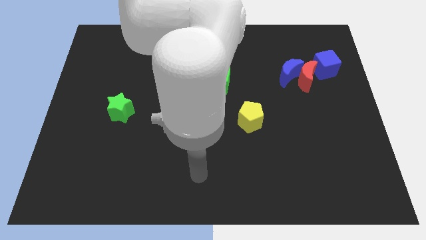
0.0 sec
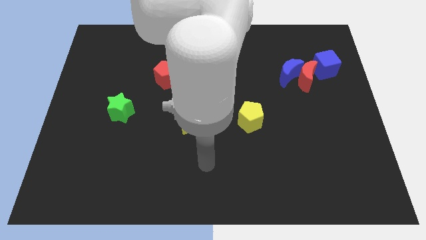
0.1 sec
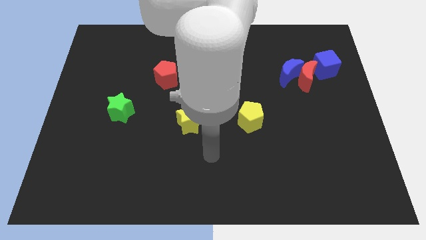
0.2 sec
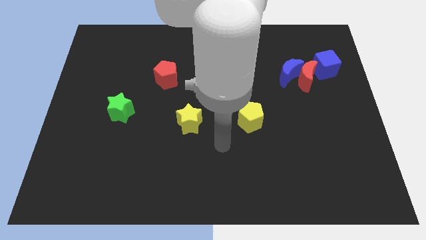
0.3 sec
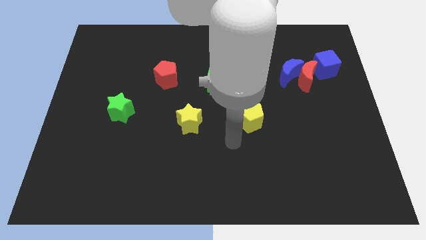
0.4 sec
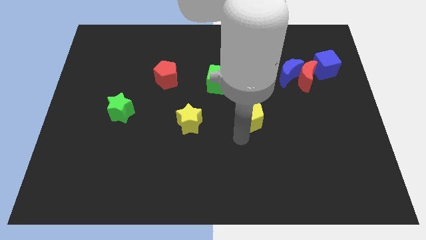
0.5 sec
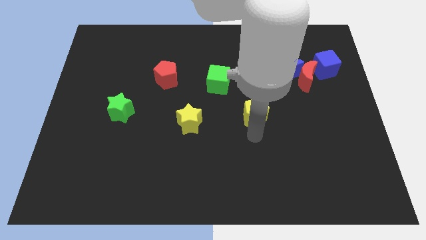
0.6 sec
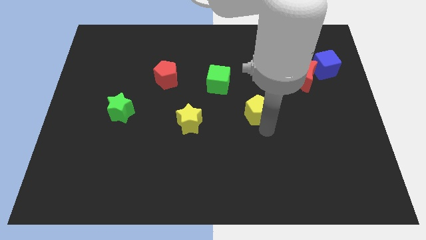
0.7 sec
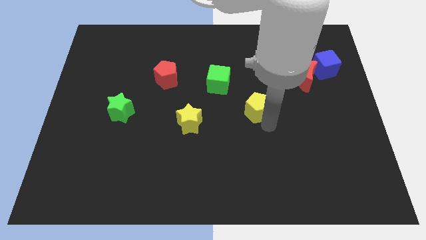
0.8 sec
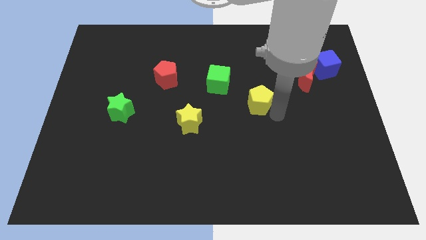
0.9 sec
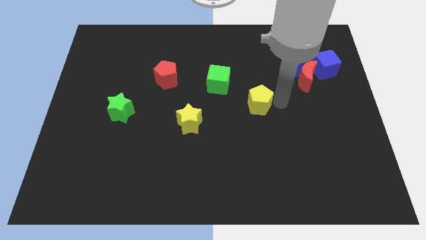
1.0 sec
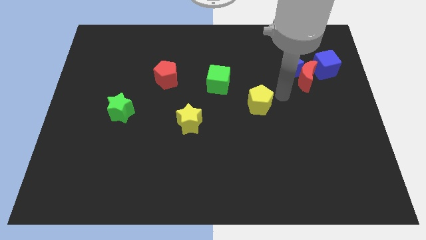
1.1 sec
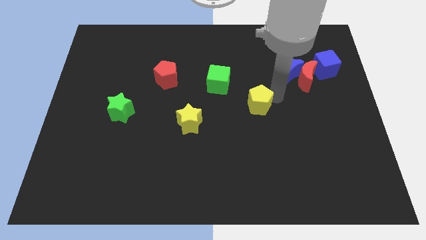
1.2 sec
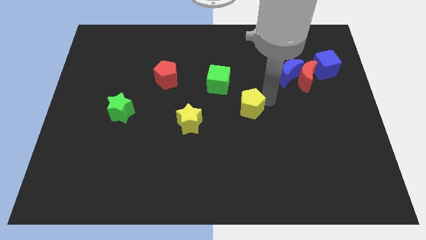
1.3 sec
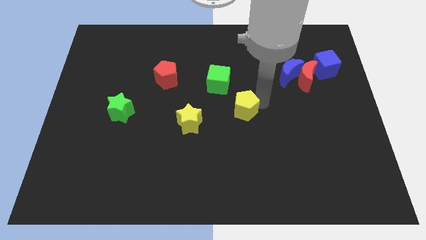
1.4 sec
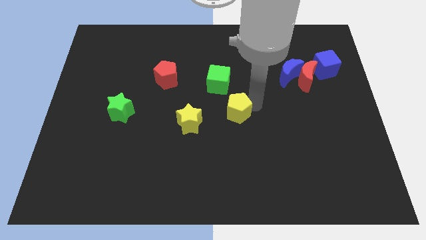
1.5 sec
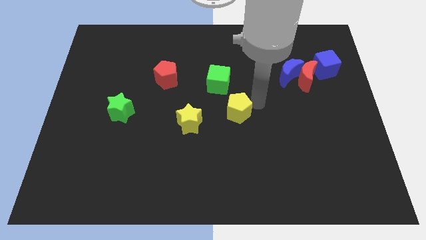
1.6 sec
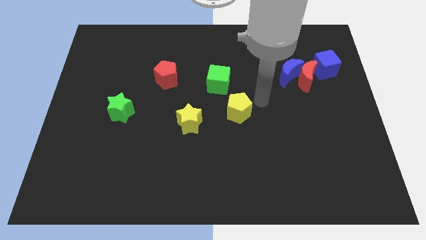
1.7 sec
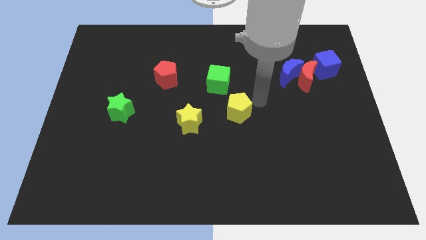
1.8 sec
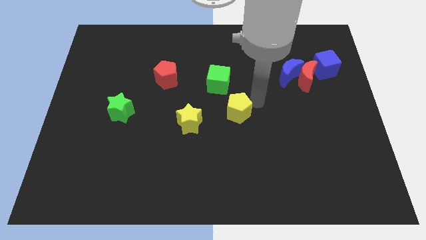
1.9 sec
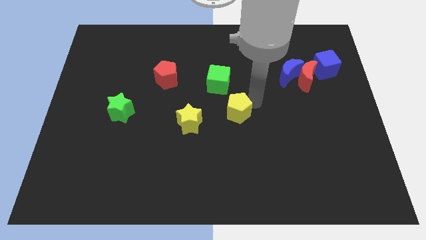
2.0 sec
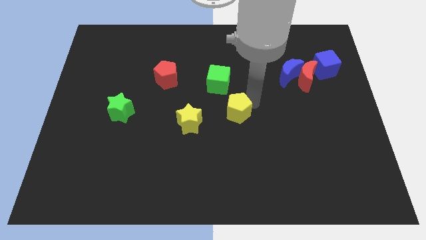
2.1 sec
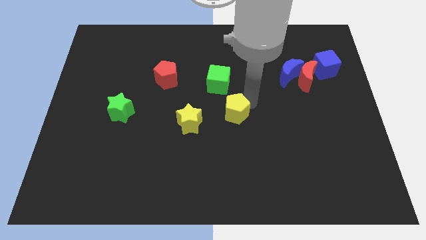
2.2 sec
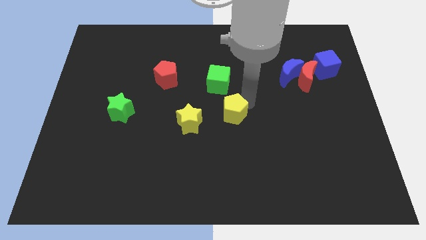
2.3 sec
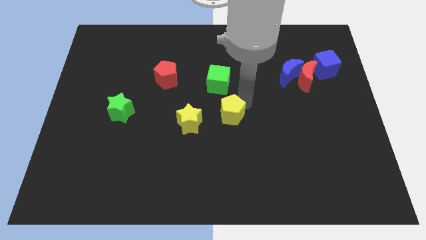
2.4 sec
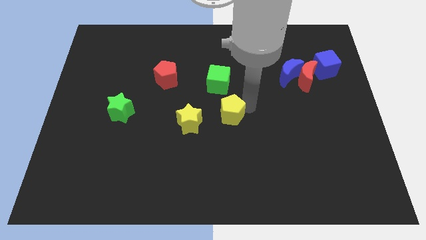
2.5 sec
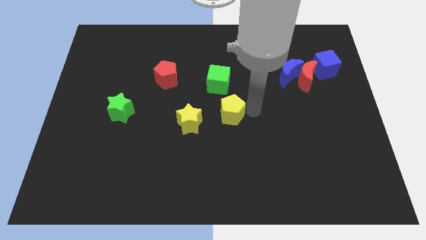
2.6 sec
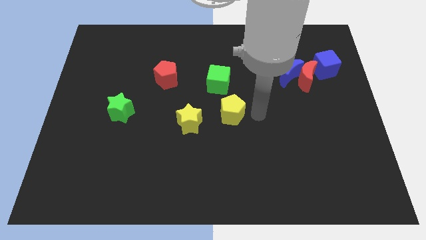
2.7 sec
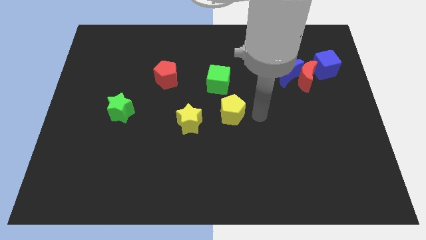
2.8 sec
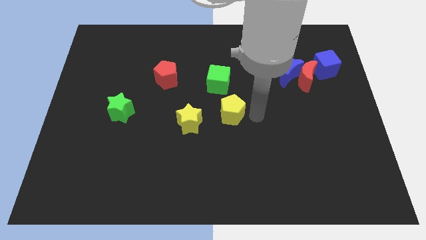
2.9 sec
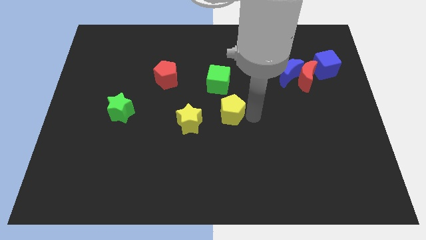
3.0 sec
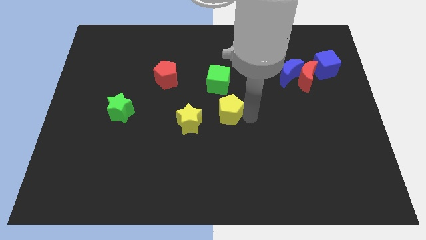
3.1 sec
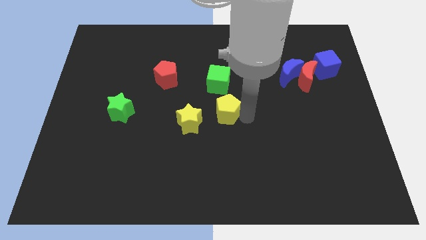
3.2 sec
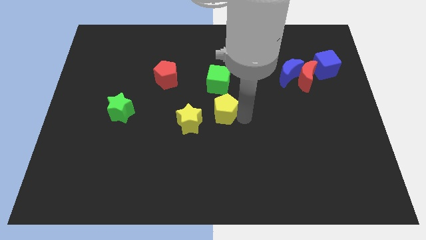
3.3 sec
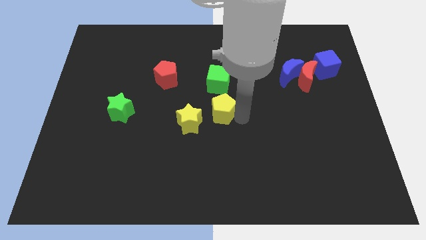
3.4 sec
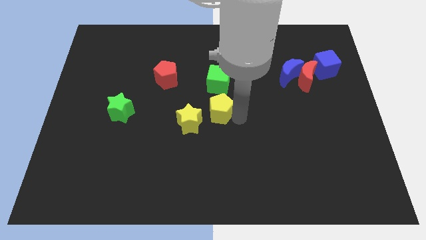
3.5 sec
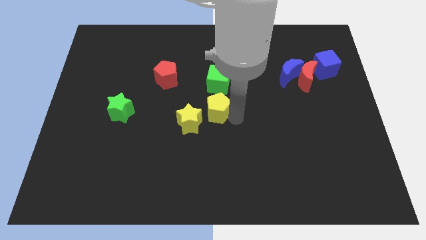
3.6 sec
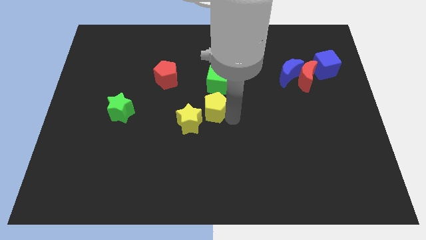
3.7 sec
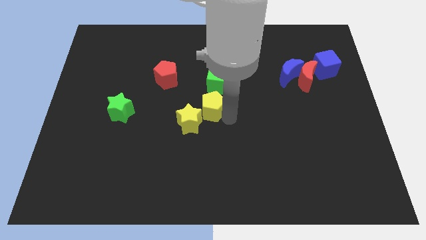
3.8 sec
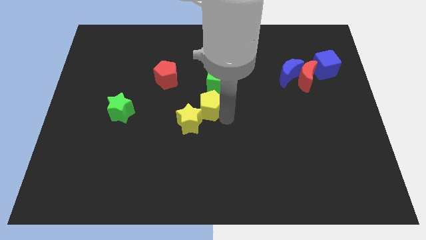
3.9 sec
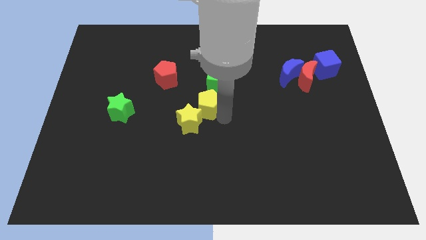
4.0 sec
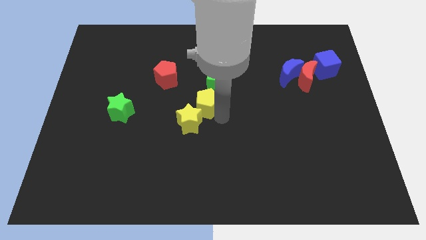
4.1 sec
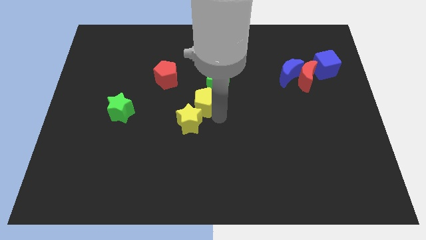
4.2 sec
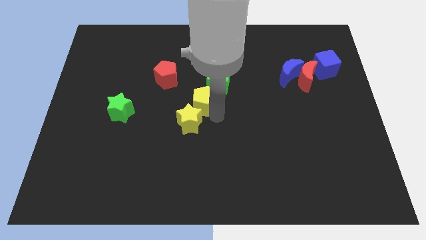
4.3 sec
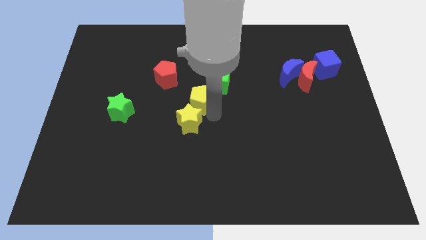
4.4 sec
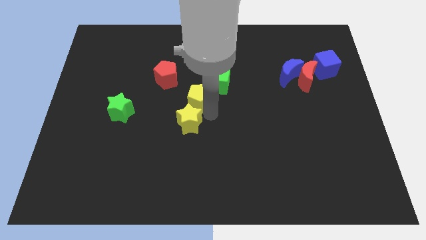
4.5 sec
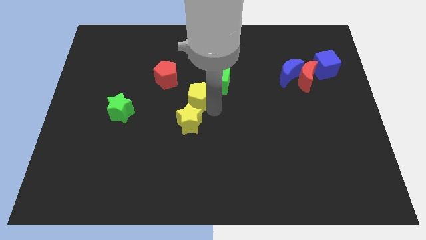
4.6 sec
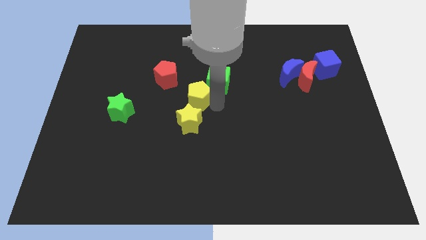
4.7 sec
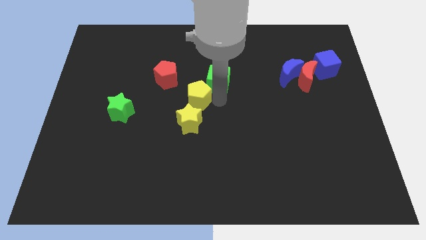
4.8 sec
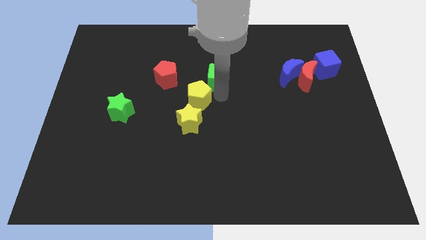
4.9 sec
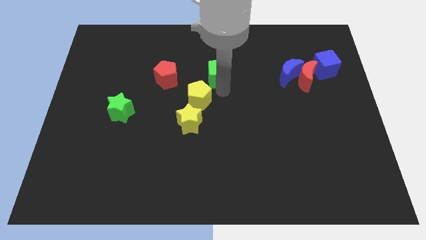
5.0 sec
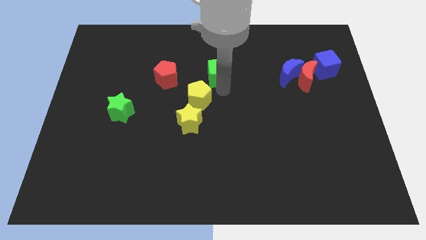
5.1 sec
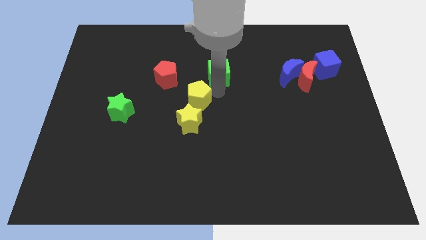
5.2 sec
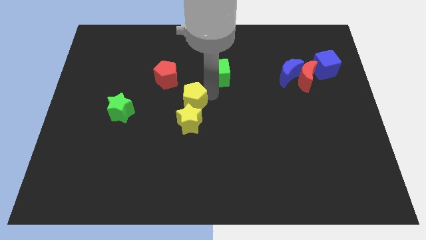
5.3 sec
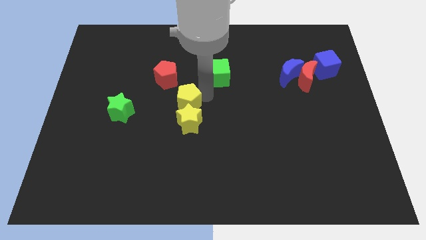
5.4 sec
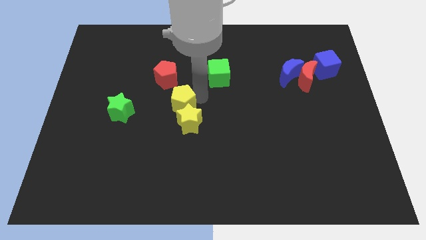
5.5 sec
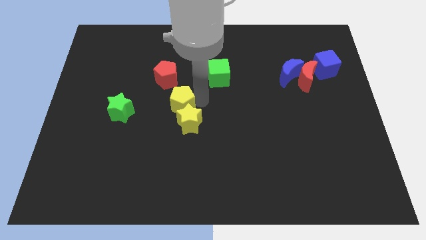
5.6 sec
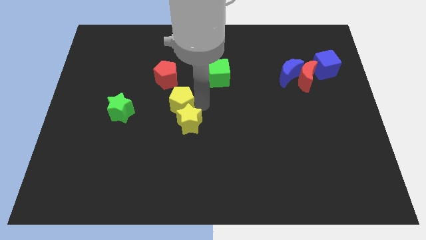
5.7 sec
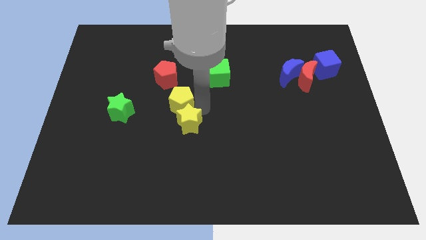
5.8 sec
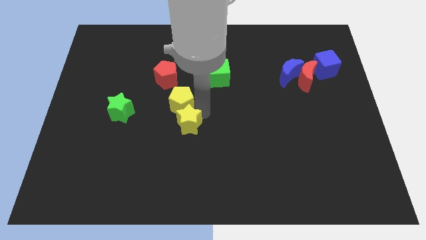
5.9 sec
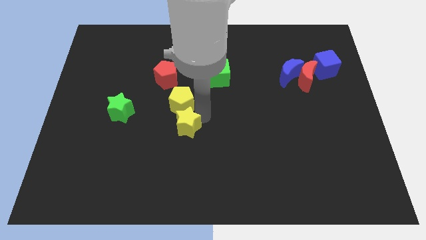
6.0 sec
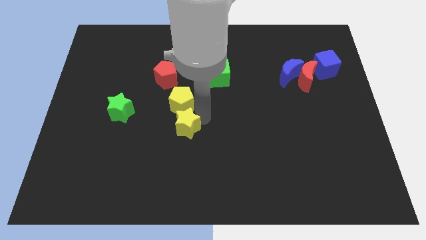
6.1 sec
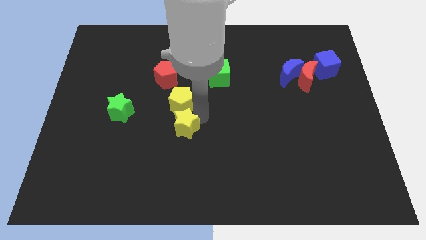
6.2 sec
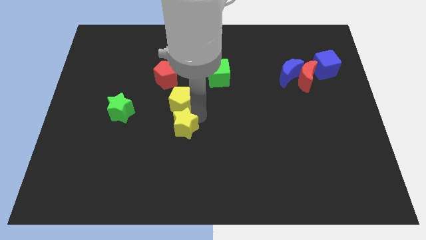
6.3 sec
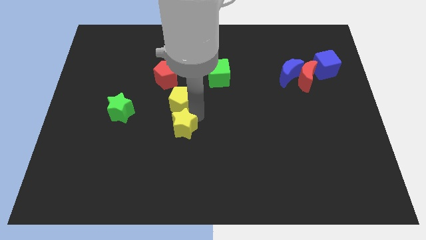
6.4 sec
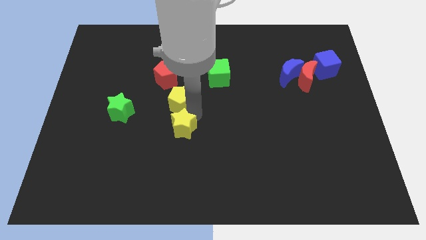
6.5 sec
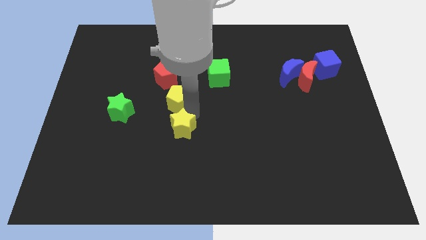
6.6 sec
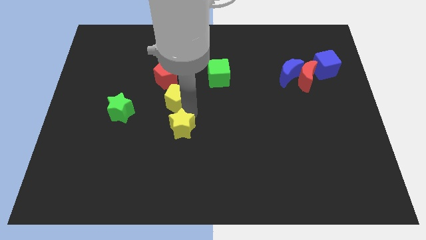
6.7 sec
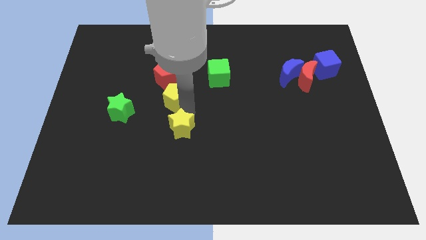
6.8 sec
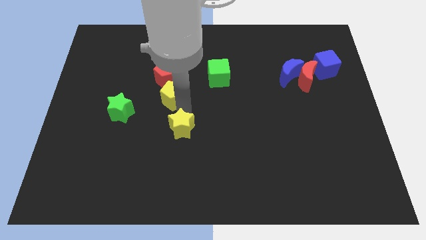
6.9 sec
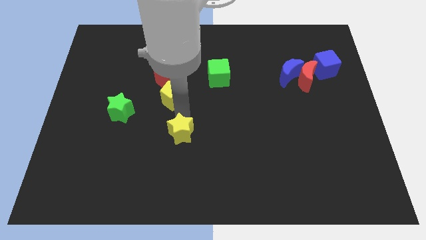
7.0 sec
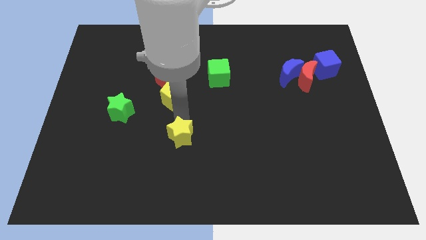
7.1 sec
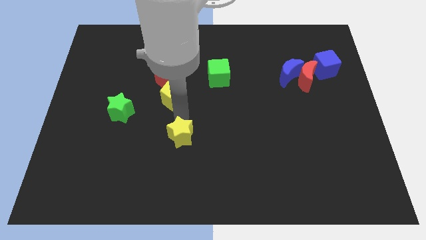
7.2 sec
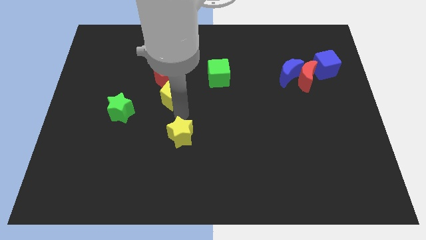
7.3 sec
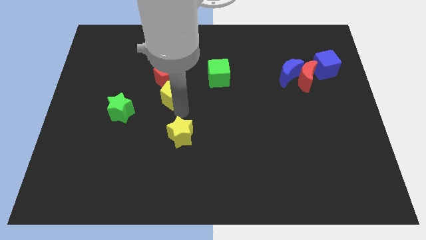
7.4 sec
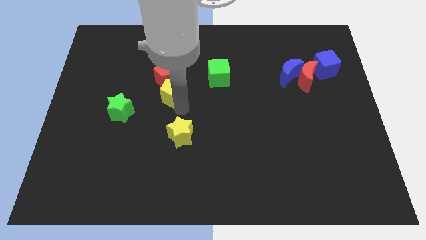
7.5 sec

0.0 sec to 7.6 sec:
put the yellow pentagon towards the red pentagon
